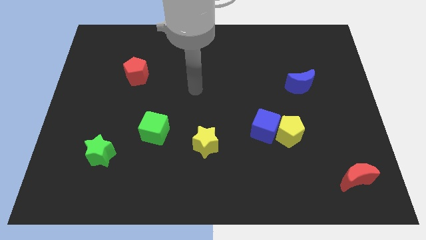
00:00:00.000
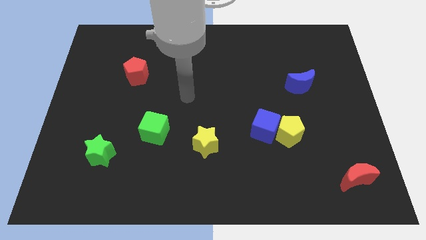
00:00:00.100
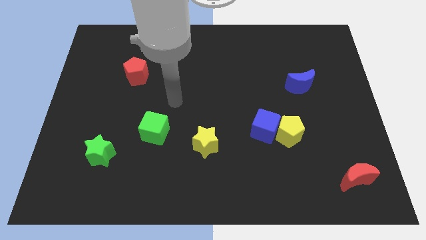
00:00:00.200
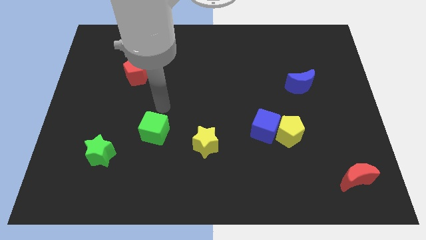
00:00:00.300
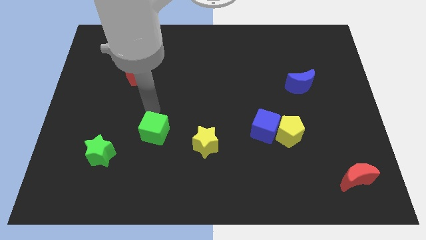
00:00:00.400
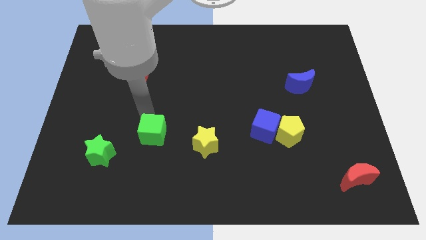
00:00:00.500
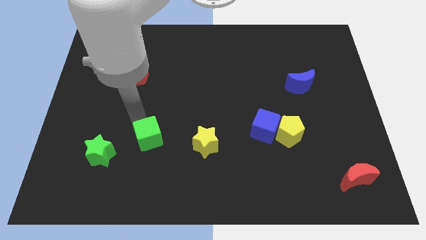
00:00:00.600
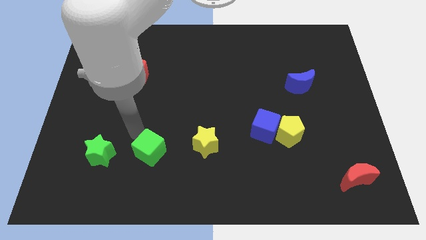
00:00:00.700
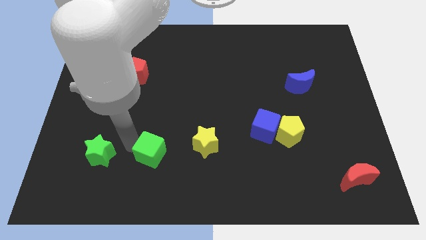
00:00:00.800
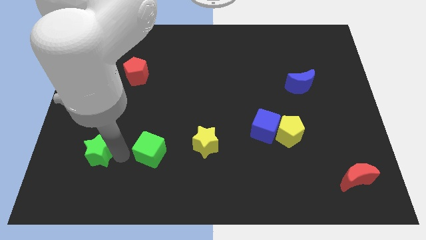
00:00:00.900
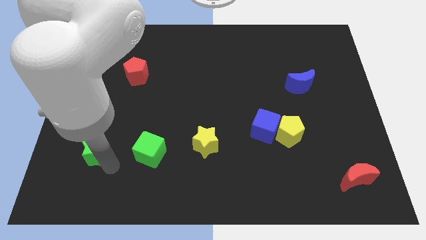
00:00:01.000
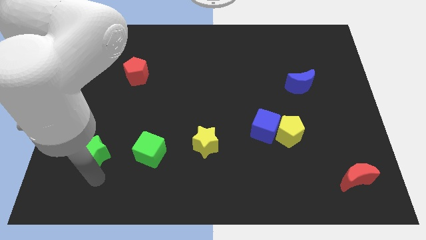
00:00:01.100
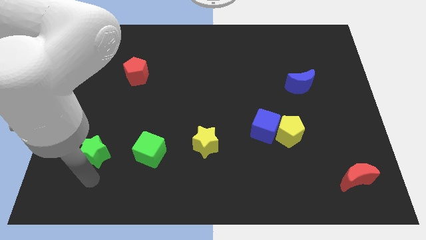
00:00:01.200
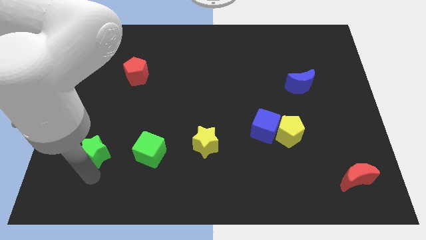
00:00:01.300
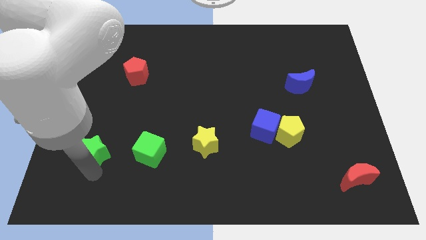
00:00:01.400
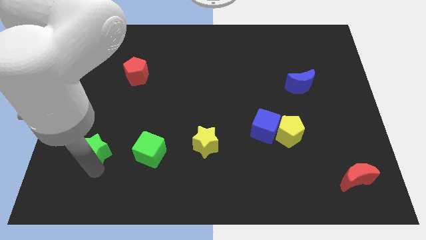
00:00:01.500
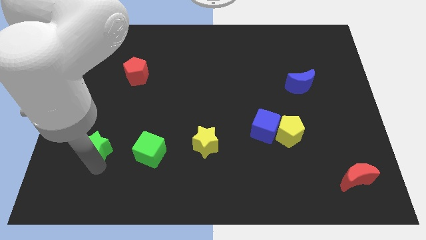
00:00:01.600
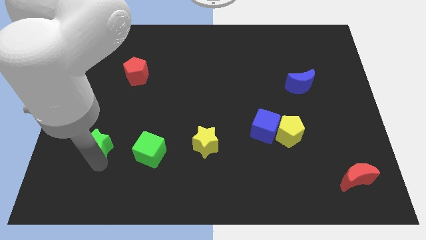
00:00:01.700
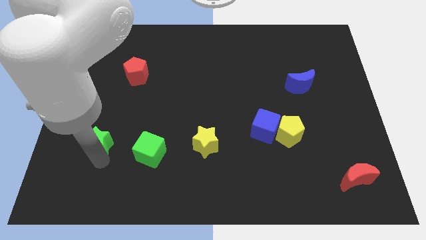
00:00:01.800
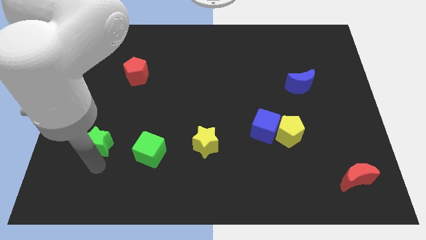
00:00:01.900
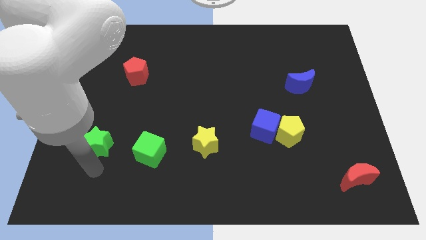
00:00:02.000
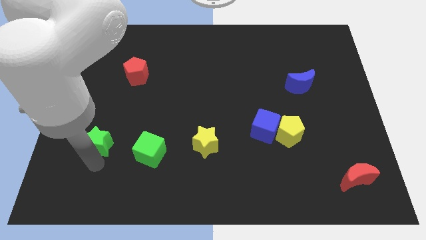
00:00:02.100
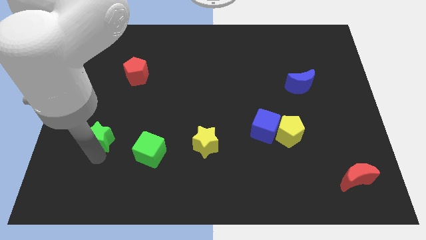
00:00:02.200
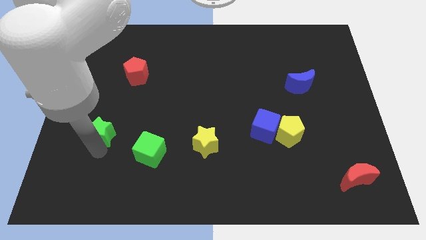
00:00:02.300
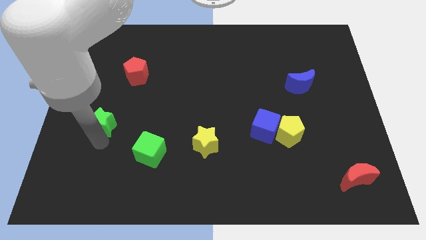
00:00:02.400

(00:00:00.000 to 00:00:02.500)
push the green star upwards a little bit

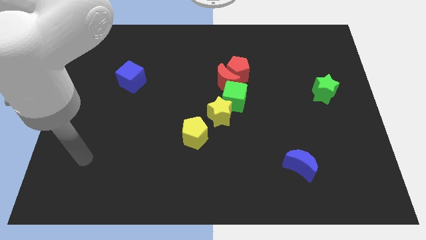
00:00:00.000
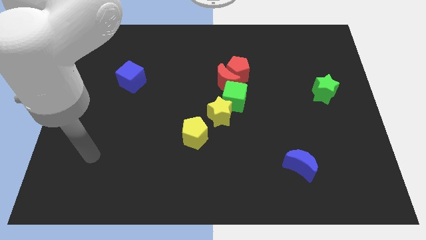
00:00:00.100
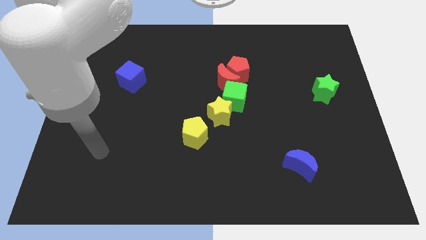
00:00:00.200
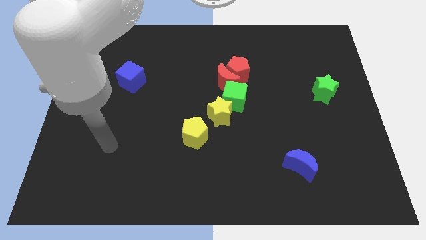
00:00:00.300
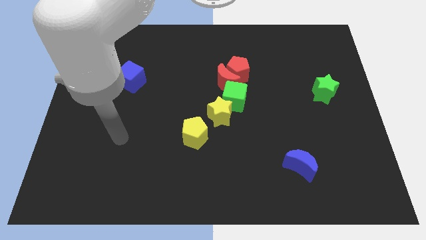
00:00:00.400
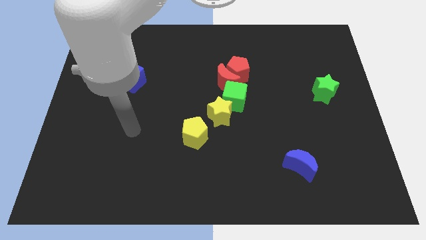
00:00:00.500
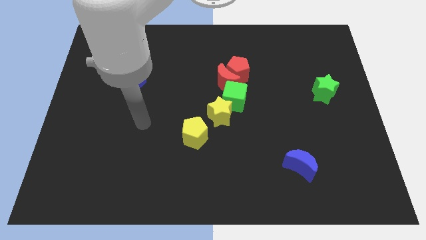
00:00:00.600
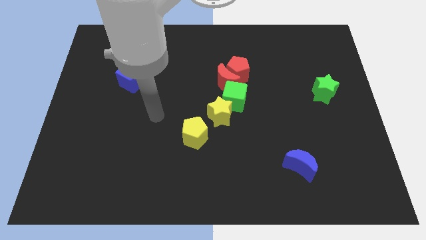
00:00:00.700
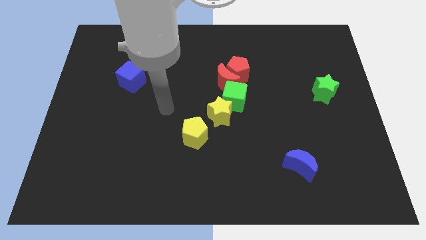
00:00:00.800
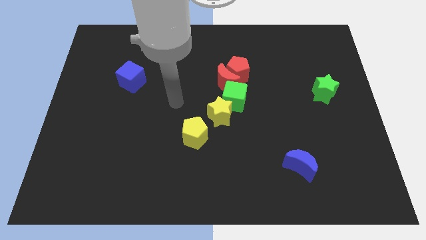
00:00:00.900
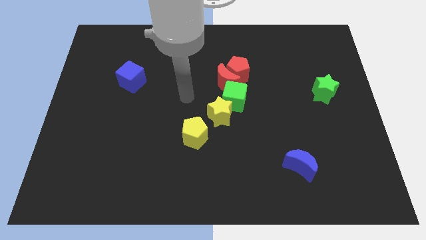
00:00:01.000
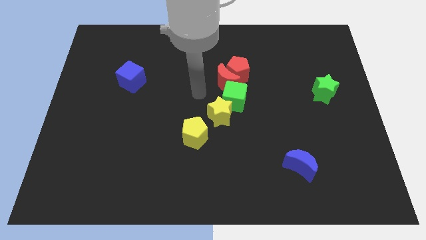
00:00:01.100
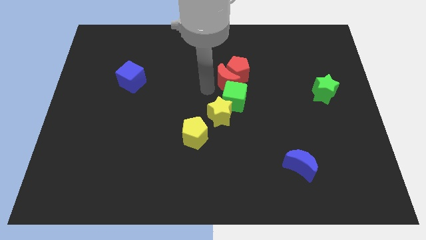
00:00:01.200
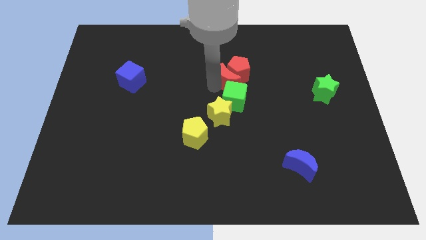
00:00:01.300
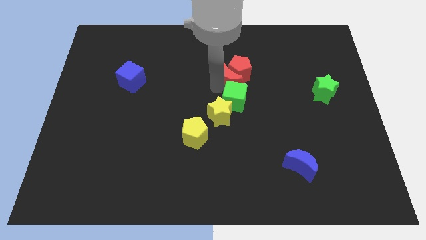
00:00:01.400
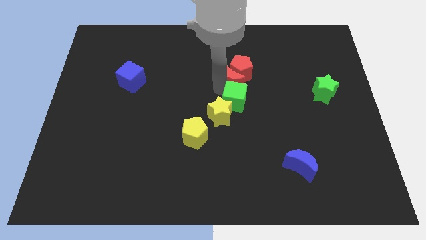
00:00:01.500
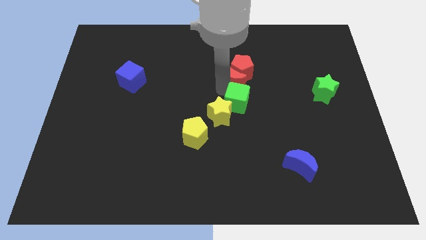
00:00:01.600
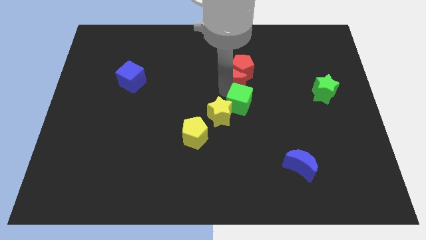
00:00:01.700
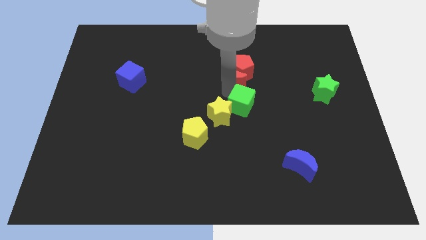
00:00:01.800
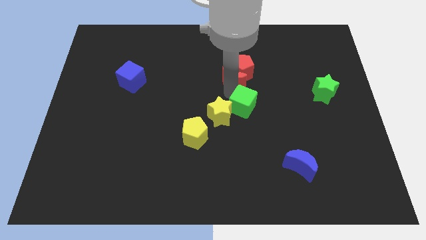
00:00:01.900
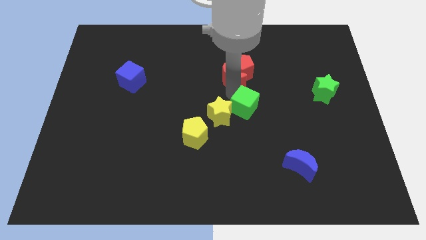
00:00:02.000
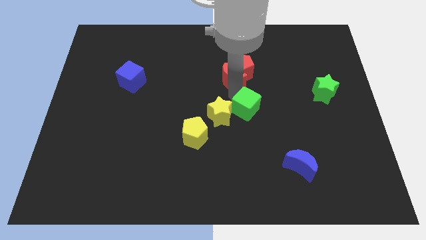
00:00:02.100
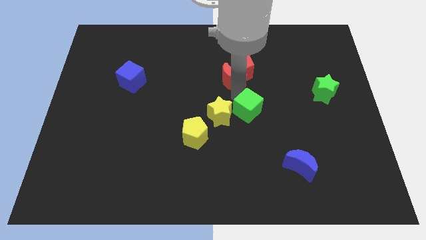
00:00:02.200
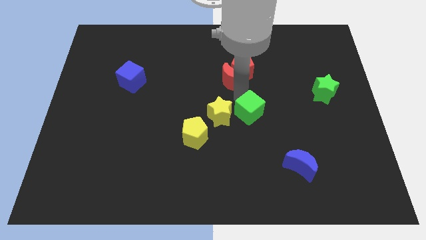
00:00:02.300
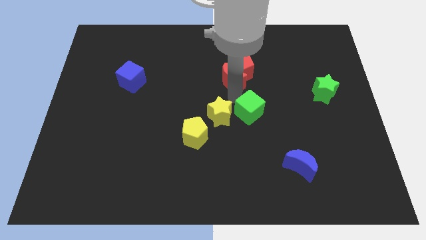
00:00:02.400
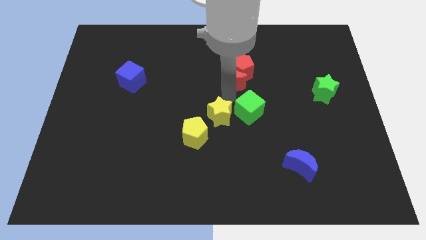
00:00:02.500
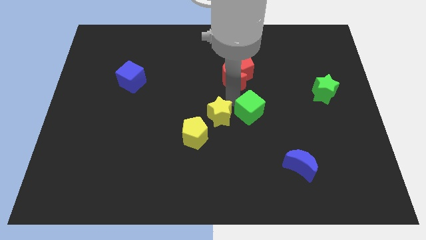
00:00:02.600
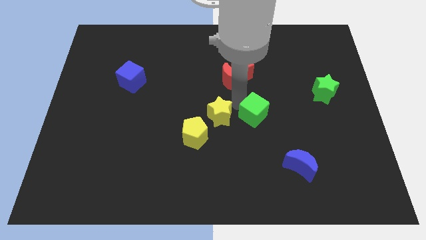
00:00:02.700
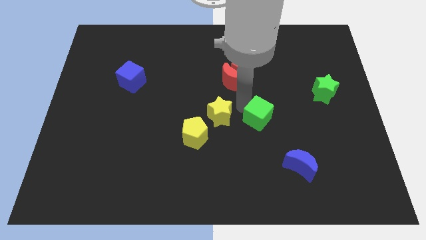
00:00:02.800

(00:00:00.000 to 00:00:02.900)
move the green cube diagonally downwards and right a bit

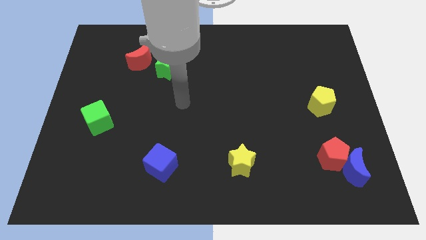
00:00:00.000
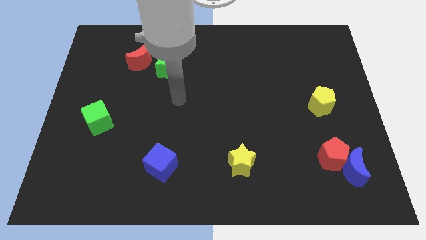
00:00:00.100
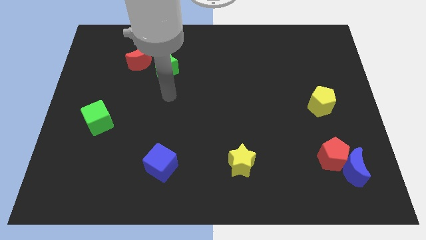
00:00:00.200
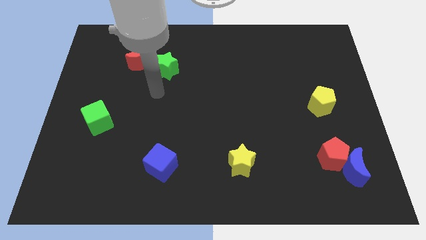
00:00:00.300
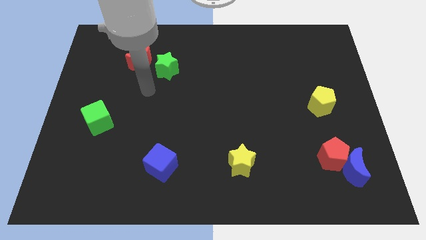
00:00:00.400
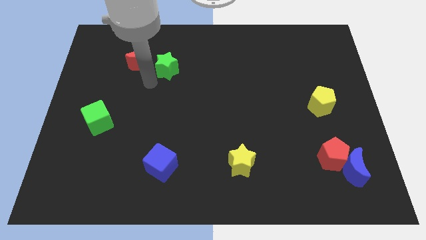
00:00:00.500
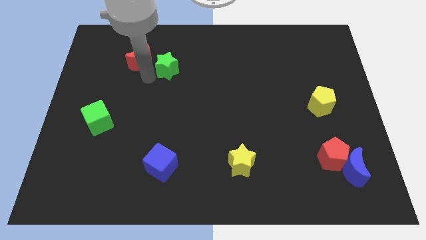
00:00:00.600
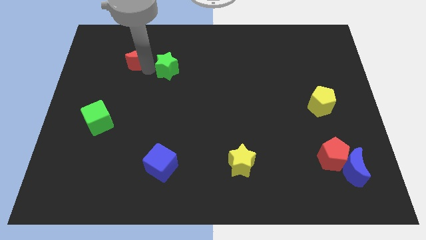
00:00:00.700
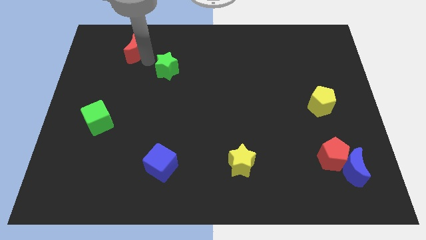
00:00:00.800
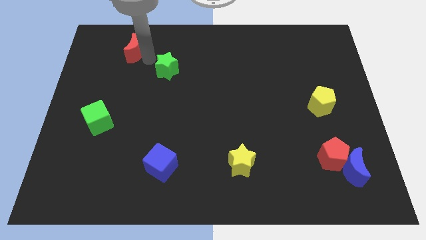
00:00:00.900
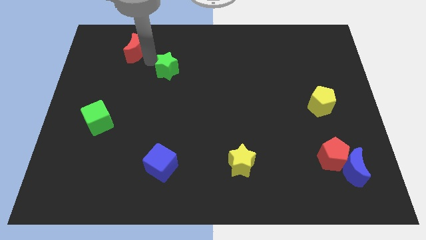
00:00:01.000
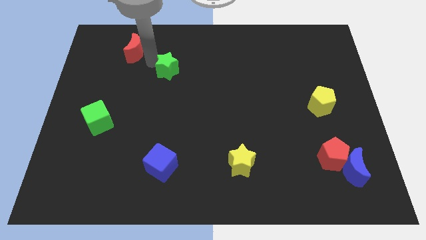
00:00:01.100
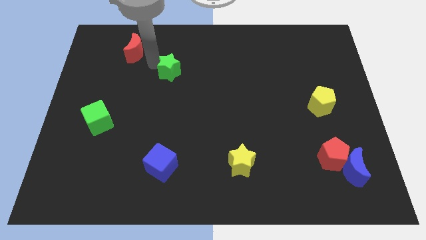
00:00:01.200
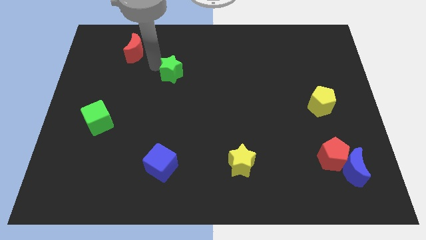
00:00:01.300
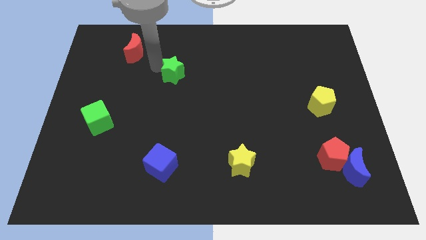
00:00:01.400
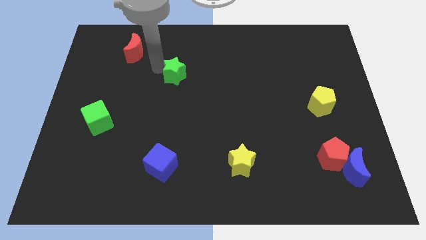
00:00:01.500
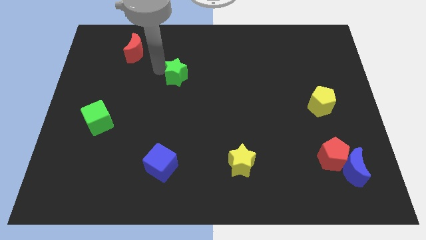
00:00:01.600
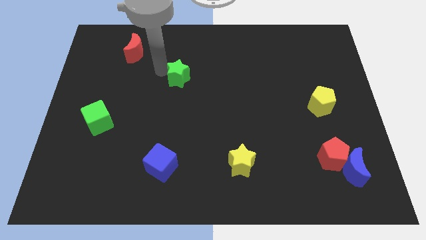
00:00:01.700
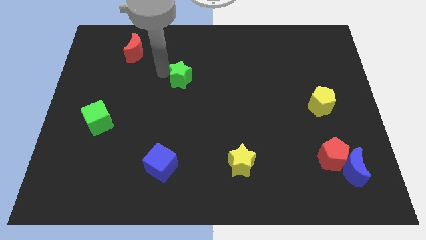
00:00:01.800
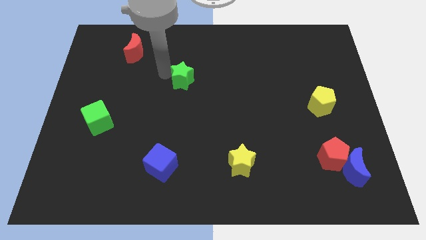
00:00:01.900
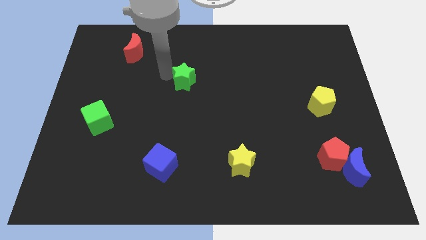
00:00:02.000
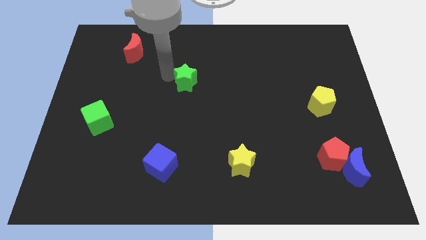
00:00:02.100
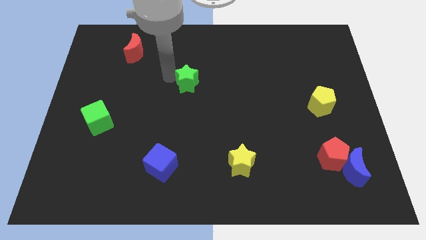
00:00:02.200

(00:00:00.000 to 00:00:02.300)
slightly move the green star downwards and to the right

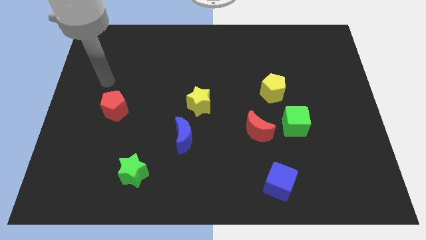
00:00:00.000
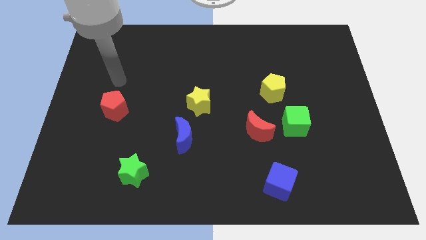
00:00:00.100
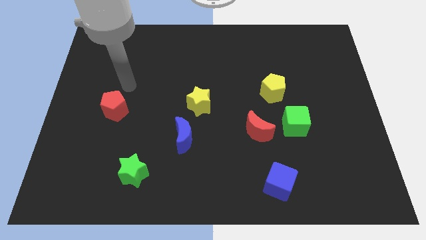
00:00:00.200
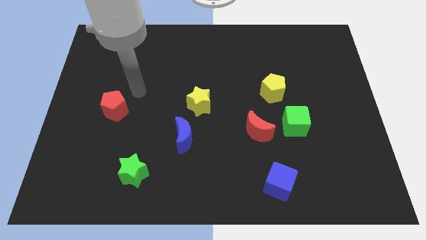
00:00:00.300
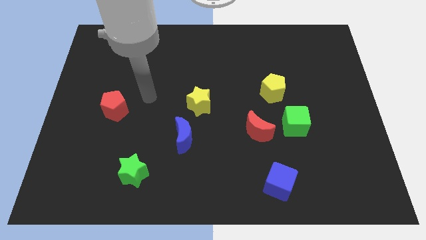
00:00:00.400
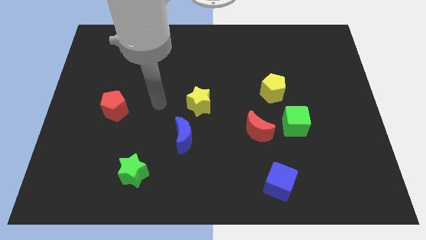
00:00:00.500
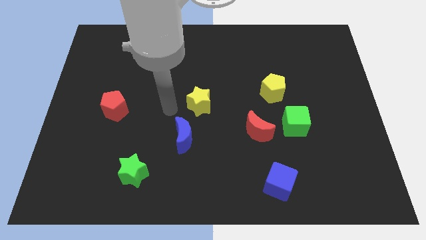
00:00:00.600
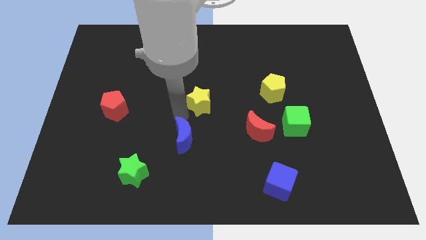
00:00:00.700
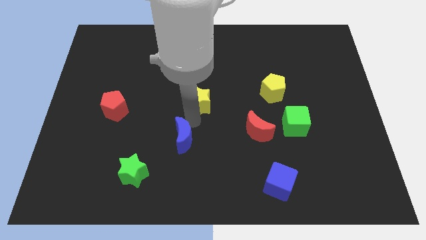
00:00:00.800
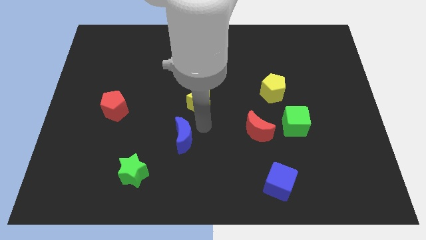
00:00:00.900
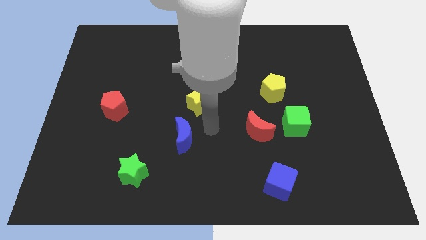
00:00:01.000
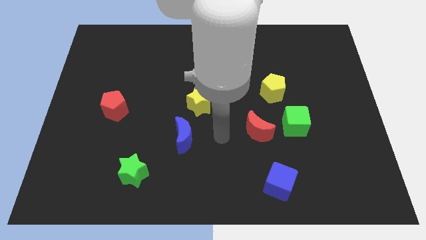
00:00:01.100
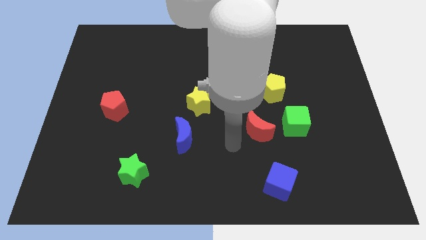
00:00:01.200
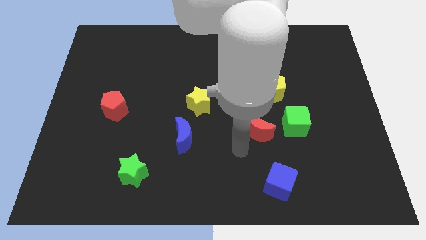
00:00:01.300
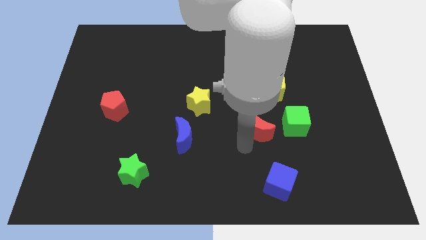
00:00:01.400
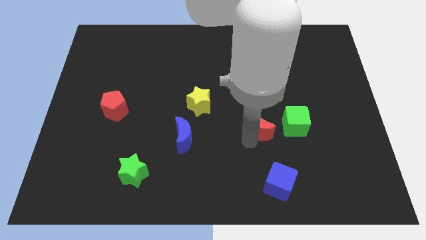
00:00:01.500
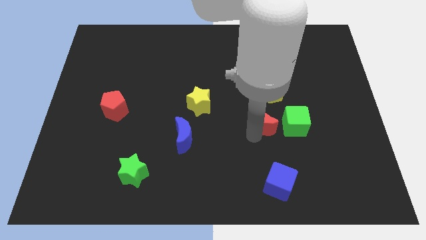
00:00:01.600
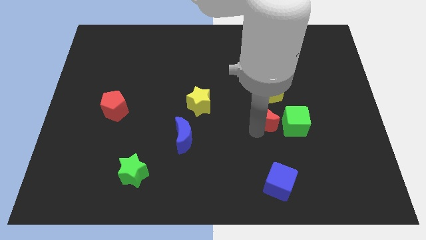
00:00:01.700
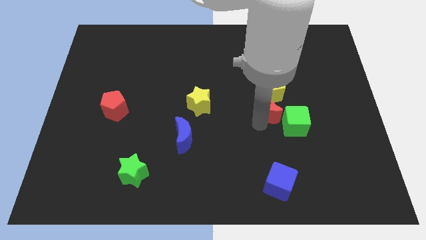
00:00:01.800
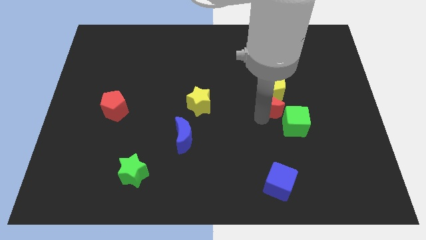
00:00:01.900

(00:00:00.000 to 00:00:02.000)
slightly move the red moon up and then to the right
